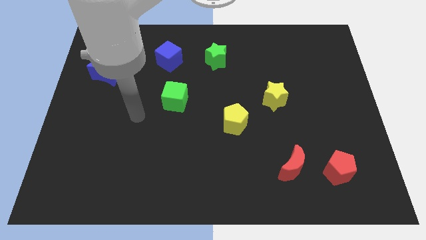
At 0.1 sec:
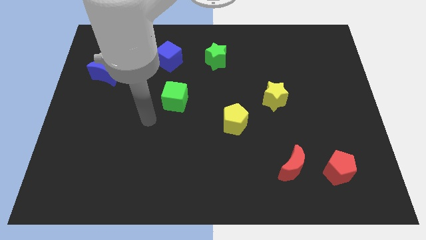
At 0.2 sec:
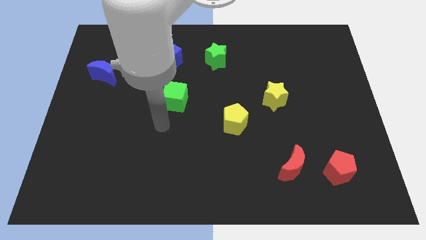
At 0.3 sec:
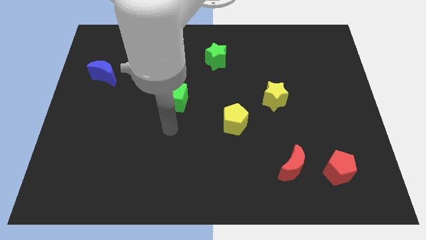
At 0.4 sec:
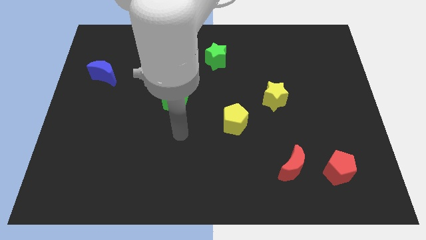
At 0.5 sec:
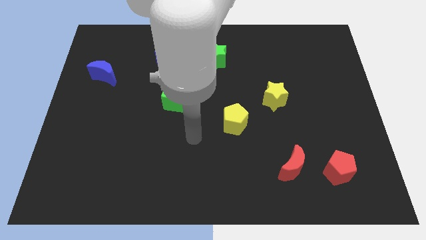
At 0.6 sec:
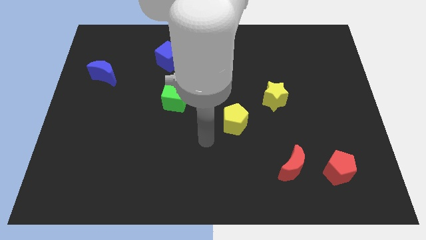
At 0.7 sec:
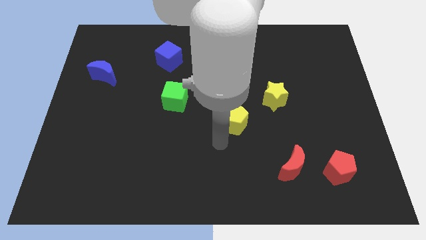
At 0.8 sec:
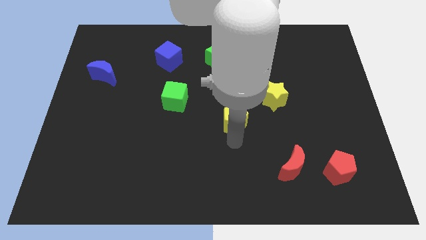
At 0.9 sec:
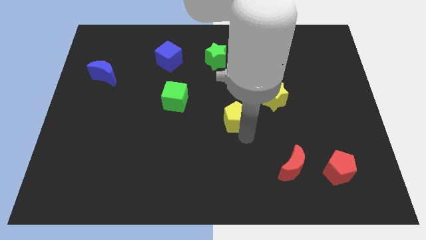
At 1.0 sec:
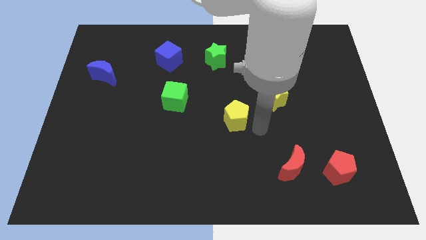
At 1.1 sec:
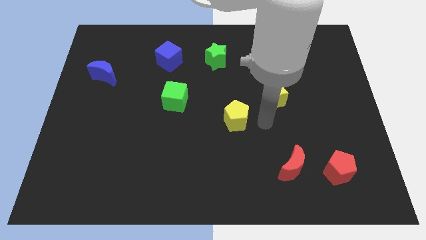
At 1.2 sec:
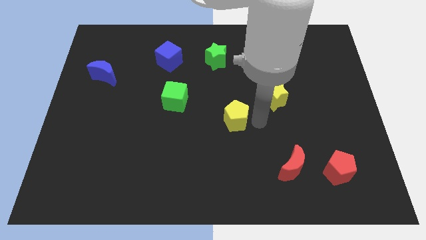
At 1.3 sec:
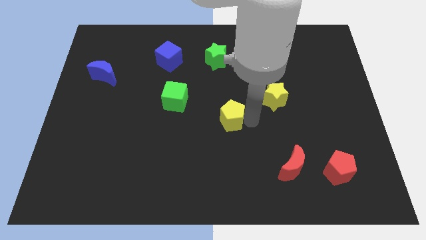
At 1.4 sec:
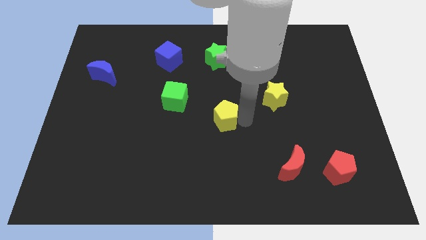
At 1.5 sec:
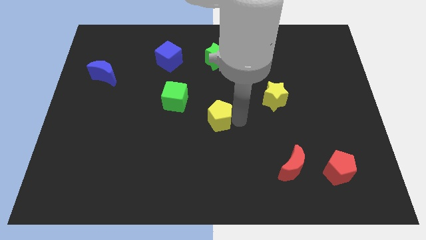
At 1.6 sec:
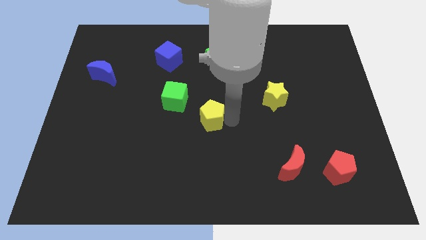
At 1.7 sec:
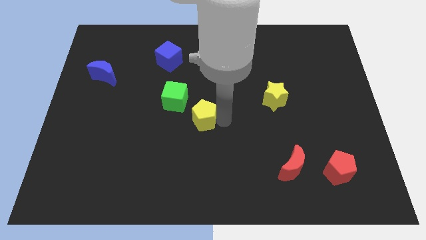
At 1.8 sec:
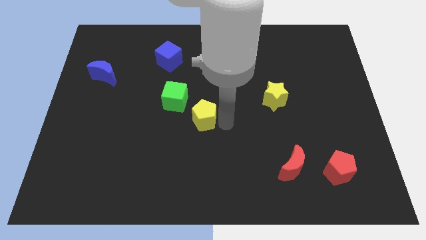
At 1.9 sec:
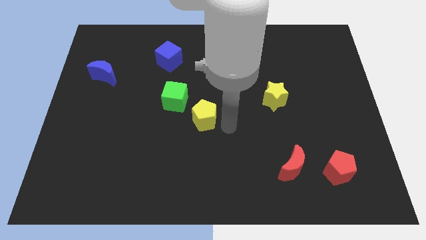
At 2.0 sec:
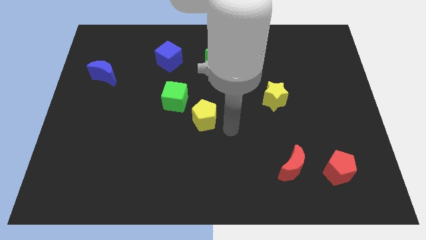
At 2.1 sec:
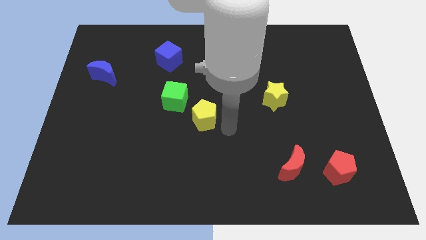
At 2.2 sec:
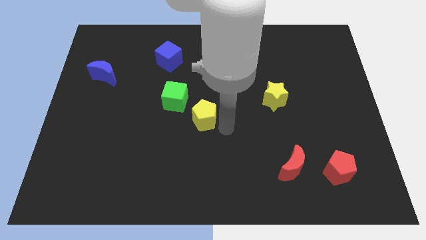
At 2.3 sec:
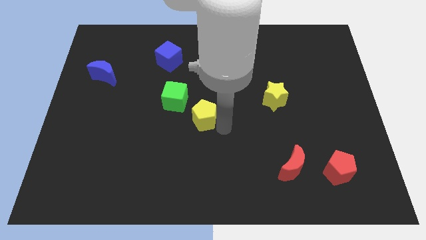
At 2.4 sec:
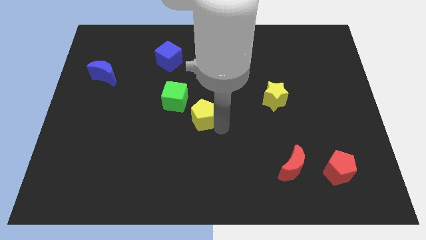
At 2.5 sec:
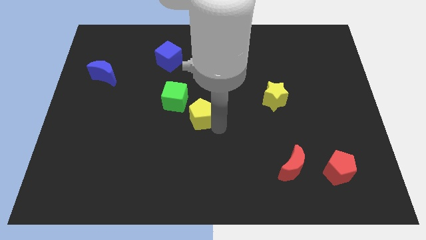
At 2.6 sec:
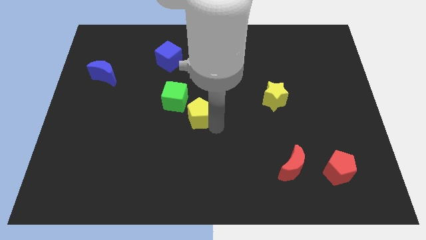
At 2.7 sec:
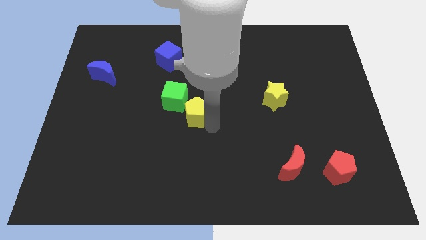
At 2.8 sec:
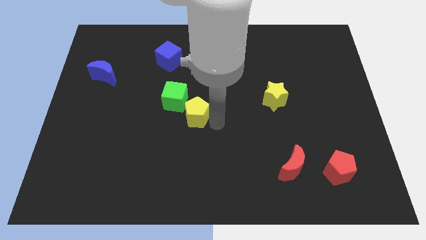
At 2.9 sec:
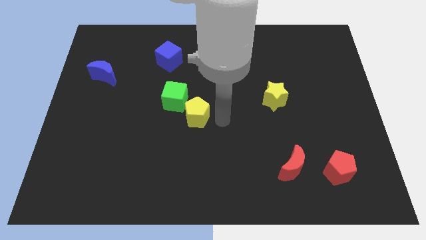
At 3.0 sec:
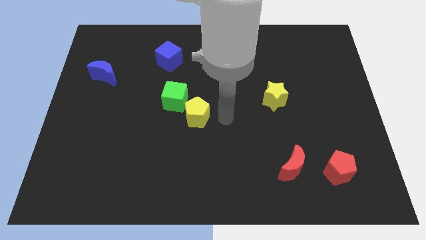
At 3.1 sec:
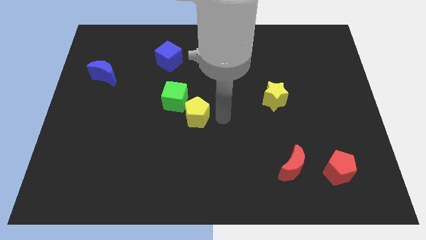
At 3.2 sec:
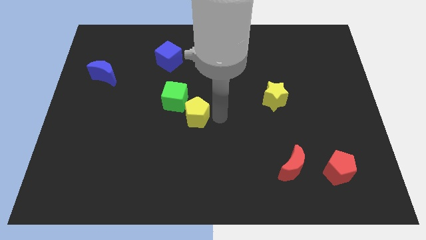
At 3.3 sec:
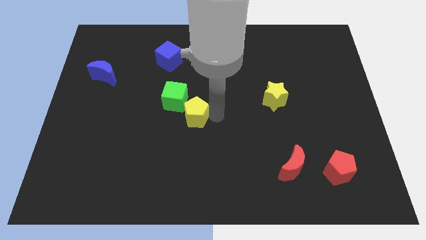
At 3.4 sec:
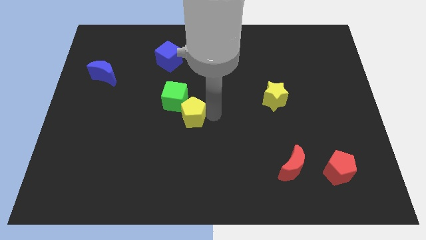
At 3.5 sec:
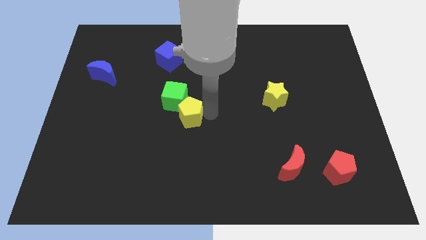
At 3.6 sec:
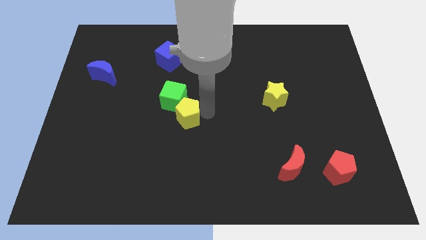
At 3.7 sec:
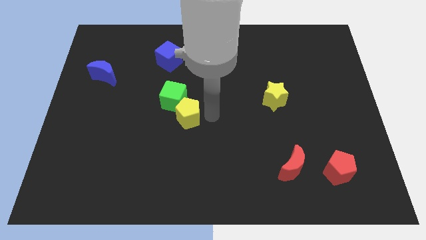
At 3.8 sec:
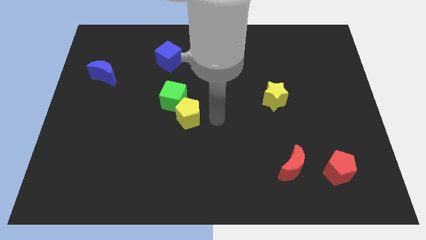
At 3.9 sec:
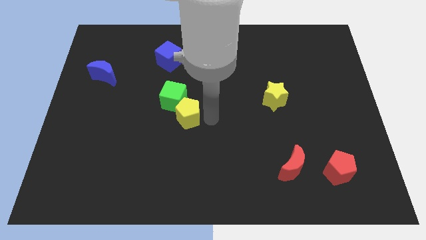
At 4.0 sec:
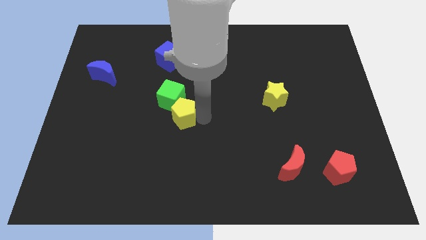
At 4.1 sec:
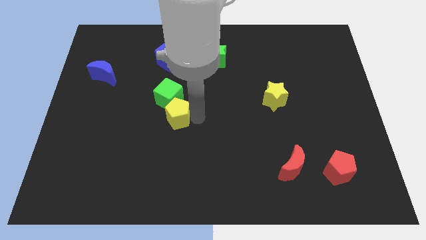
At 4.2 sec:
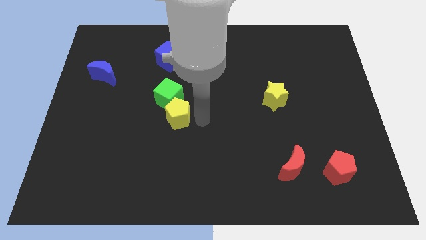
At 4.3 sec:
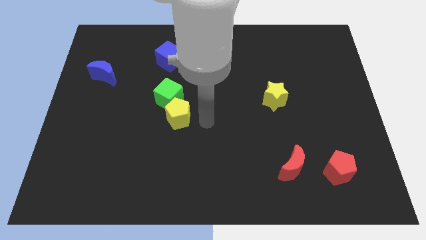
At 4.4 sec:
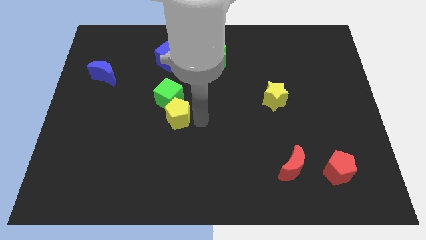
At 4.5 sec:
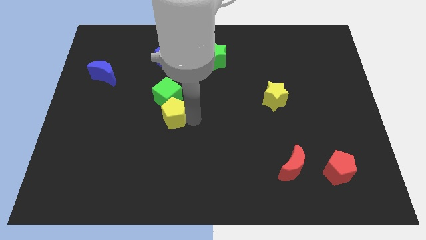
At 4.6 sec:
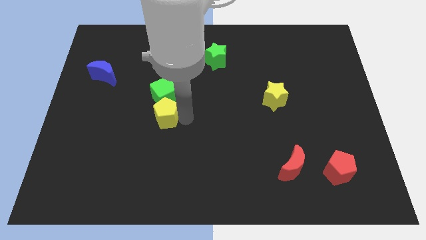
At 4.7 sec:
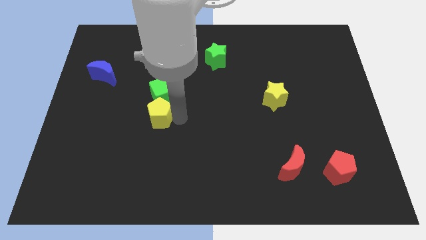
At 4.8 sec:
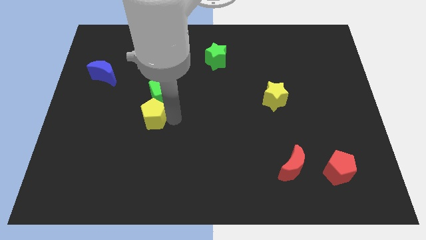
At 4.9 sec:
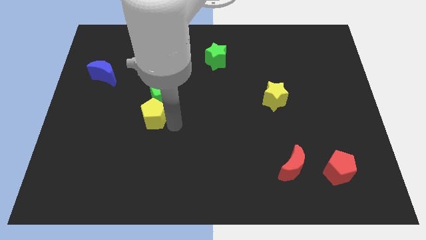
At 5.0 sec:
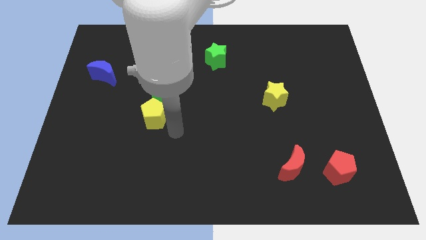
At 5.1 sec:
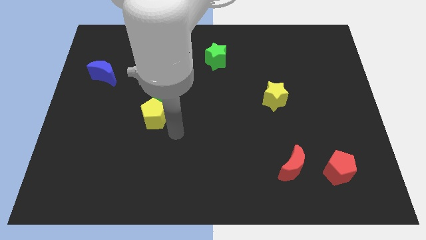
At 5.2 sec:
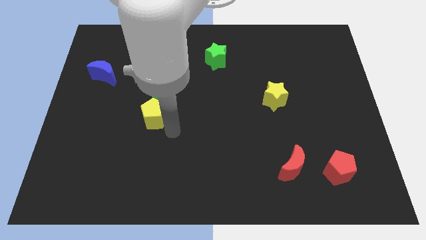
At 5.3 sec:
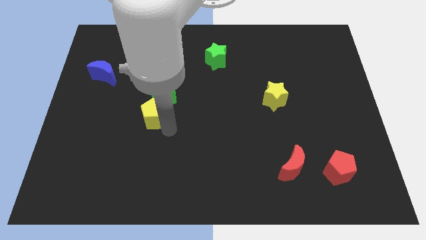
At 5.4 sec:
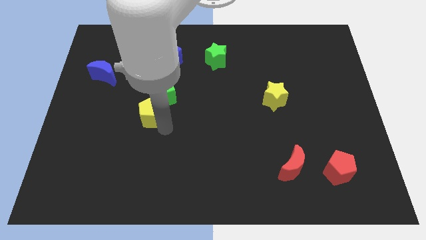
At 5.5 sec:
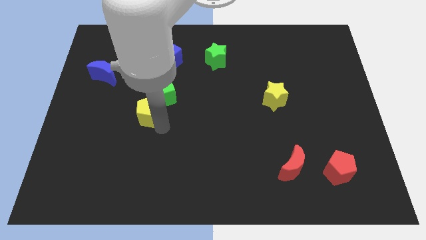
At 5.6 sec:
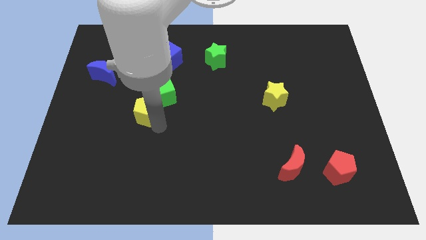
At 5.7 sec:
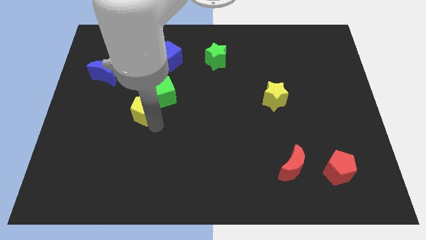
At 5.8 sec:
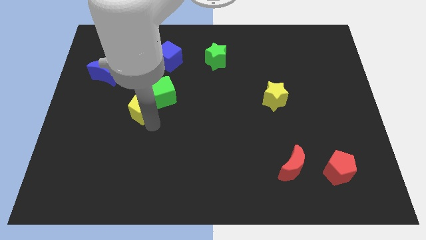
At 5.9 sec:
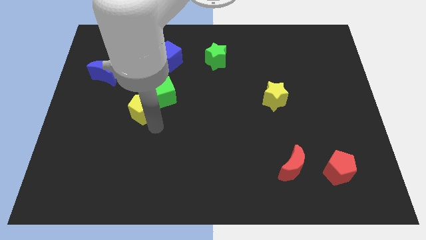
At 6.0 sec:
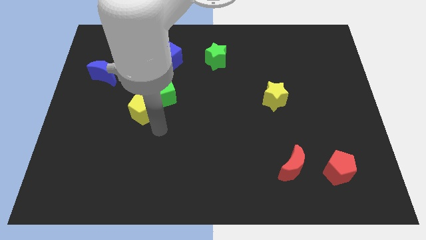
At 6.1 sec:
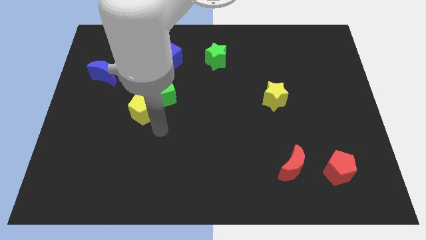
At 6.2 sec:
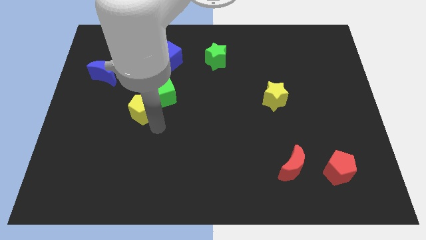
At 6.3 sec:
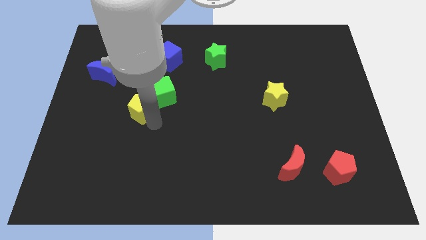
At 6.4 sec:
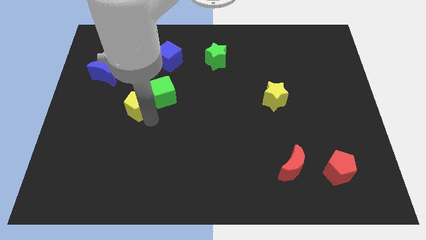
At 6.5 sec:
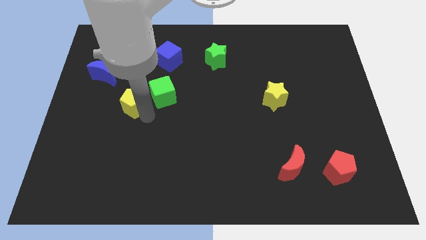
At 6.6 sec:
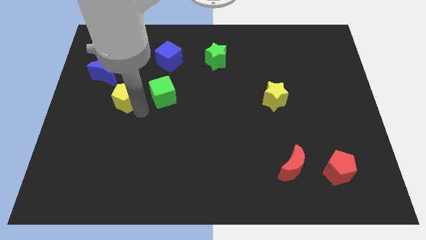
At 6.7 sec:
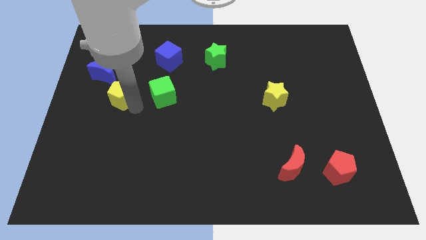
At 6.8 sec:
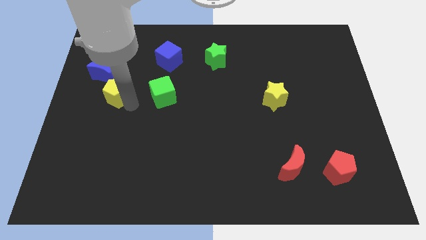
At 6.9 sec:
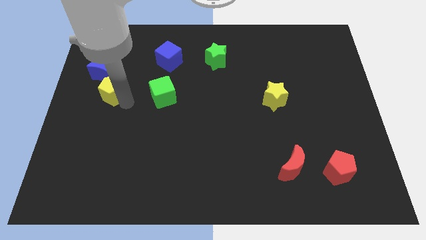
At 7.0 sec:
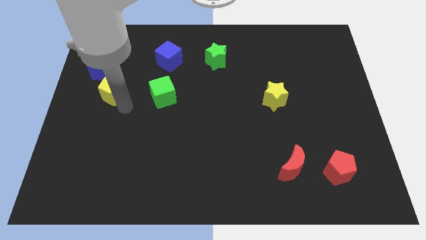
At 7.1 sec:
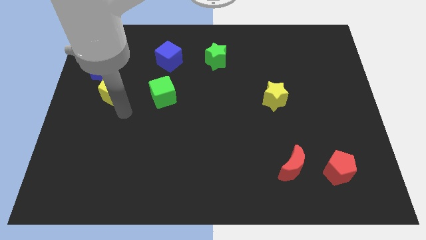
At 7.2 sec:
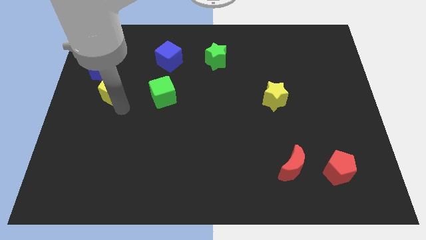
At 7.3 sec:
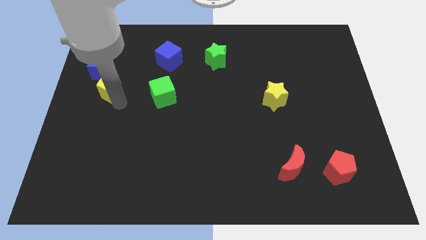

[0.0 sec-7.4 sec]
slide the yellow pentagon close to the blue moon
